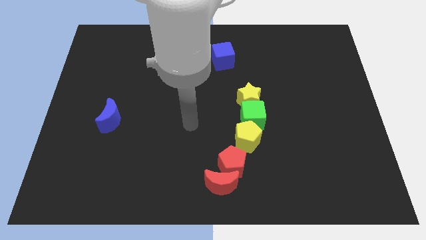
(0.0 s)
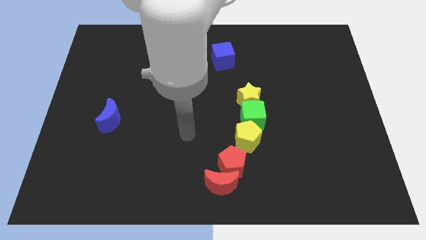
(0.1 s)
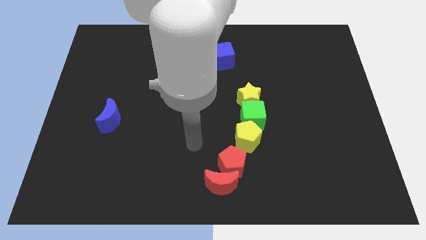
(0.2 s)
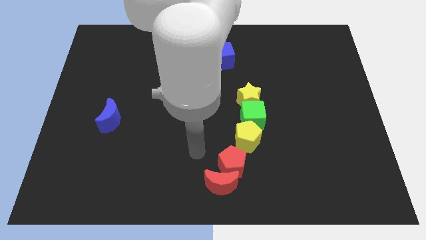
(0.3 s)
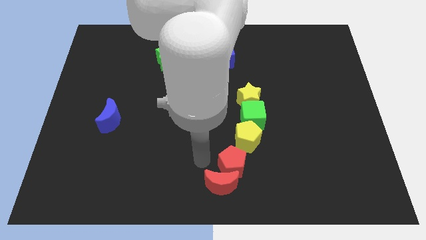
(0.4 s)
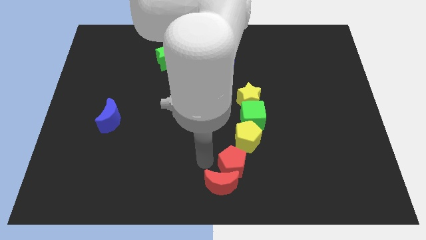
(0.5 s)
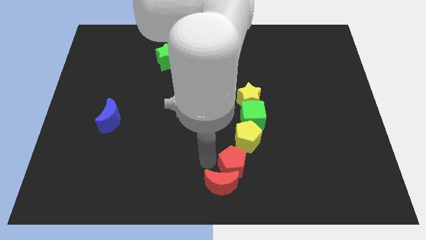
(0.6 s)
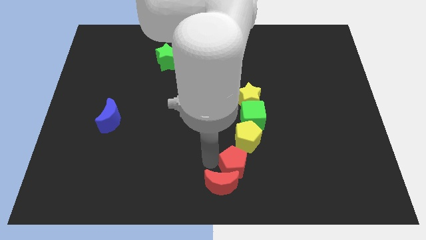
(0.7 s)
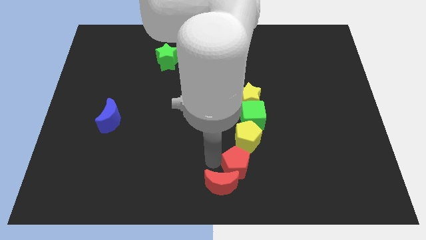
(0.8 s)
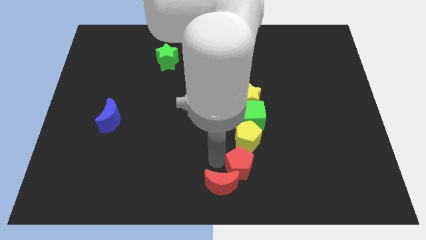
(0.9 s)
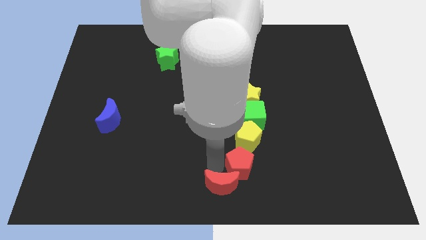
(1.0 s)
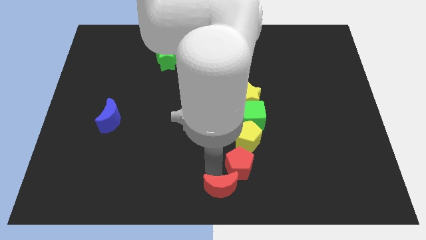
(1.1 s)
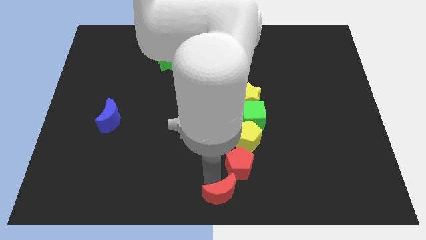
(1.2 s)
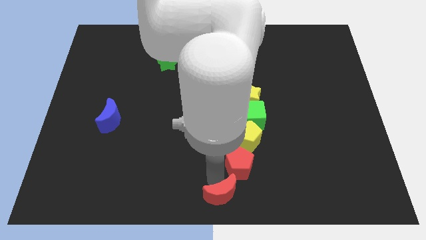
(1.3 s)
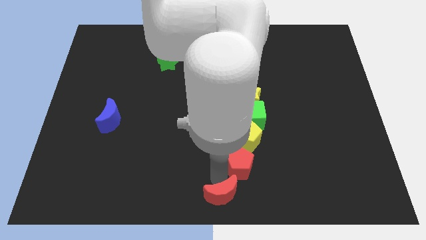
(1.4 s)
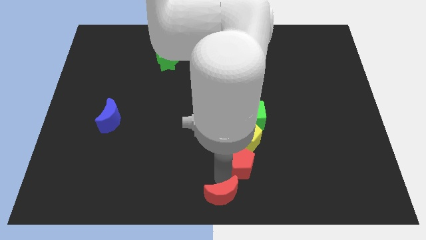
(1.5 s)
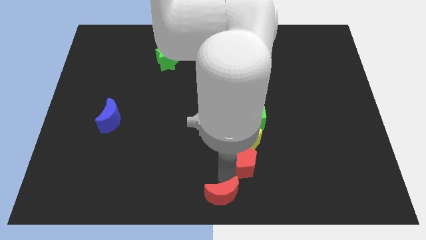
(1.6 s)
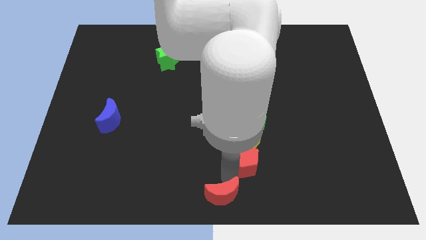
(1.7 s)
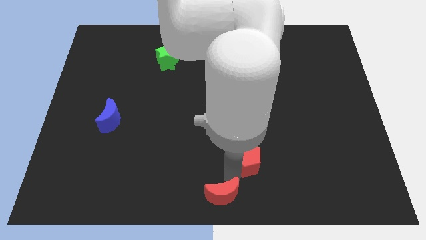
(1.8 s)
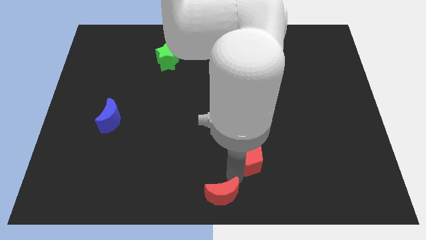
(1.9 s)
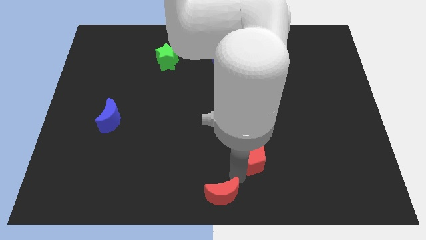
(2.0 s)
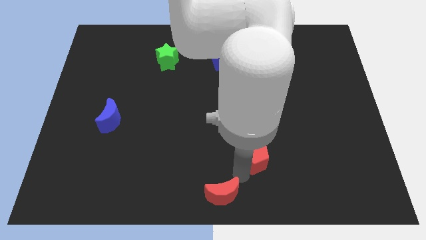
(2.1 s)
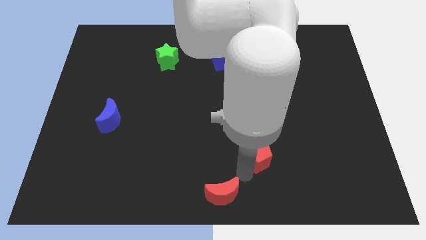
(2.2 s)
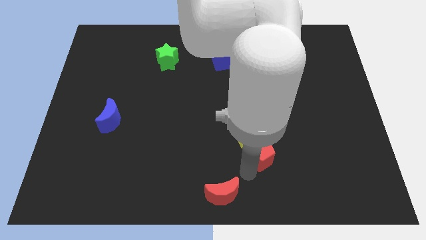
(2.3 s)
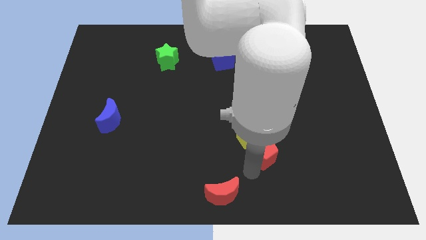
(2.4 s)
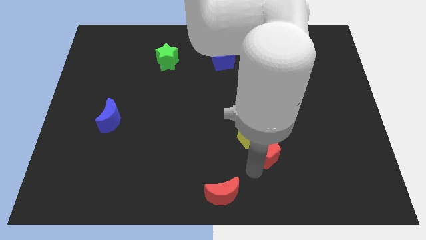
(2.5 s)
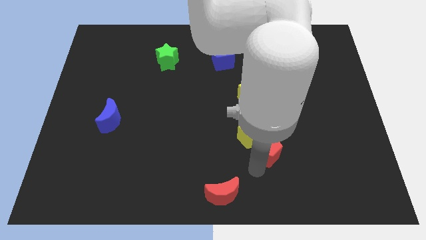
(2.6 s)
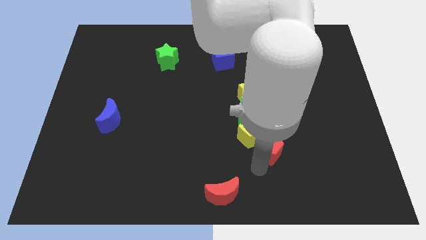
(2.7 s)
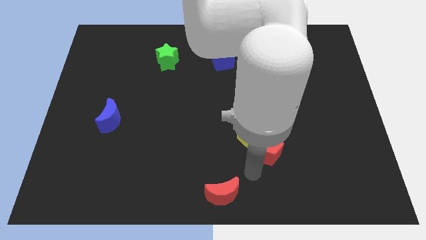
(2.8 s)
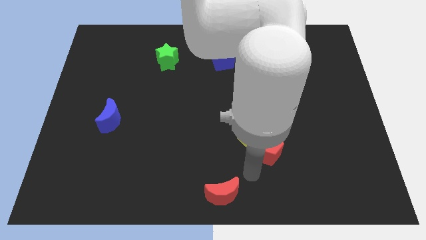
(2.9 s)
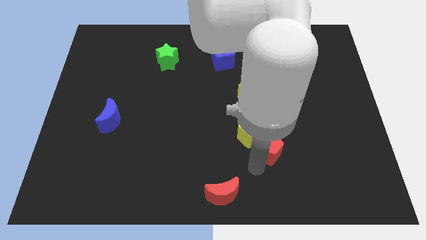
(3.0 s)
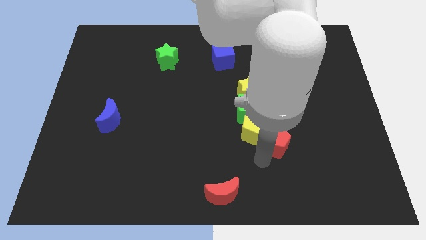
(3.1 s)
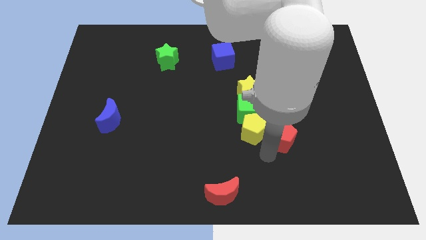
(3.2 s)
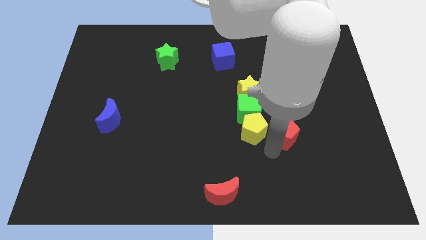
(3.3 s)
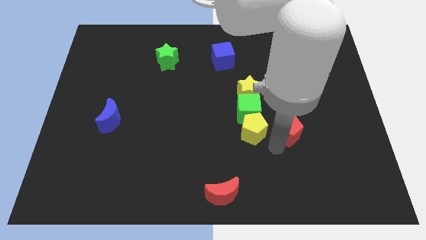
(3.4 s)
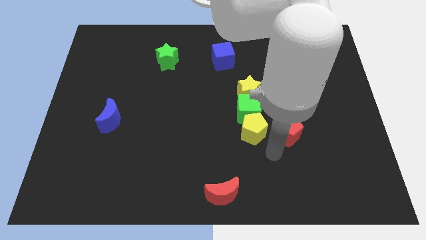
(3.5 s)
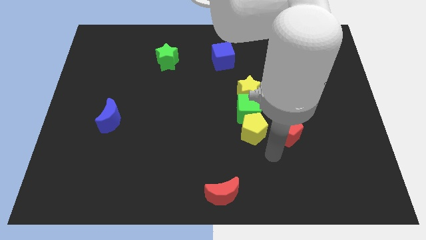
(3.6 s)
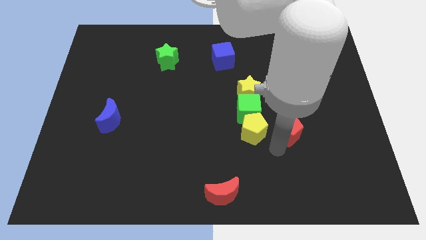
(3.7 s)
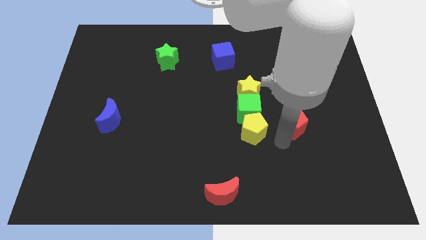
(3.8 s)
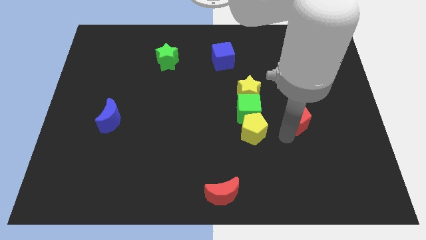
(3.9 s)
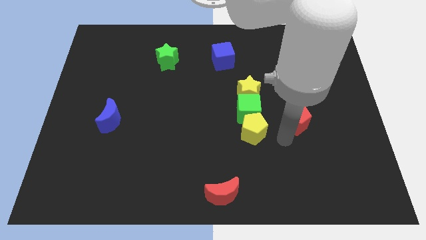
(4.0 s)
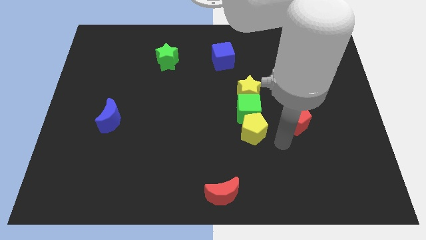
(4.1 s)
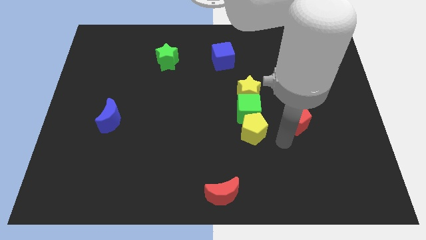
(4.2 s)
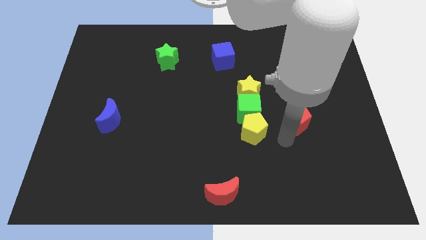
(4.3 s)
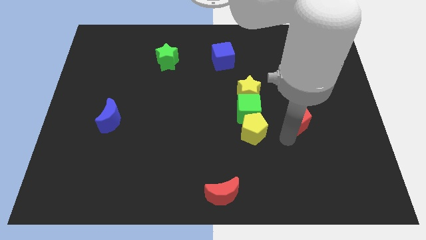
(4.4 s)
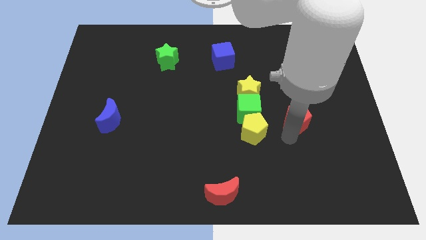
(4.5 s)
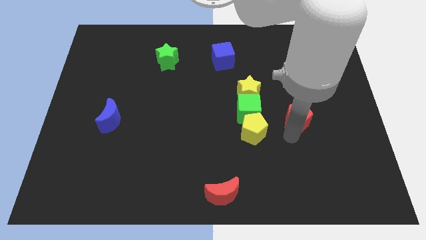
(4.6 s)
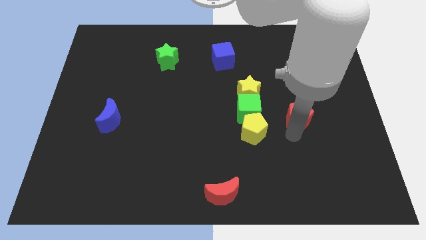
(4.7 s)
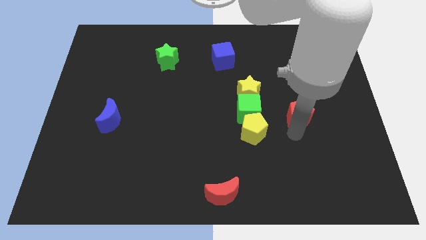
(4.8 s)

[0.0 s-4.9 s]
slide the red pentagon up and to the right diagonally

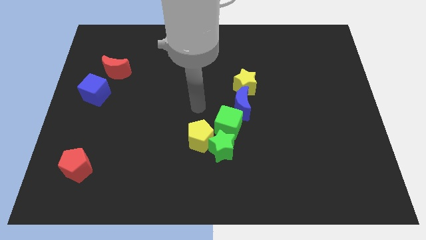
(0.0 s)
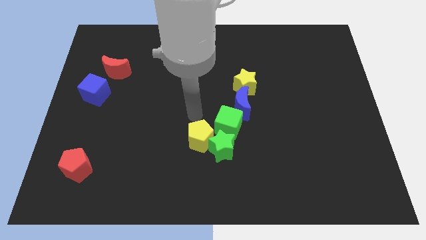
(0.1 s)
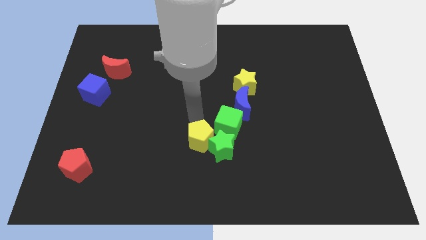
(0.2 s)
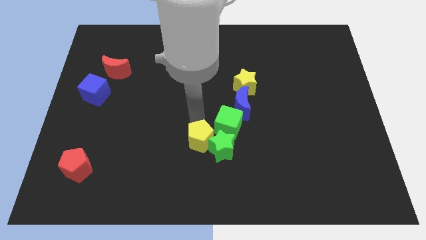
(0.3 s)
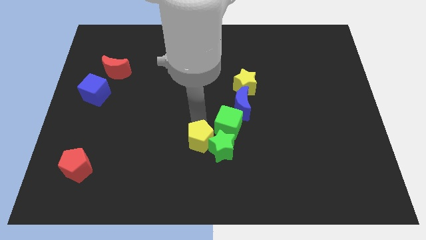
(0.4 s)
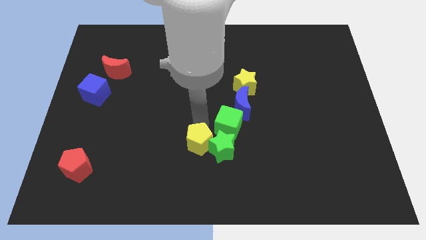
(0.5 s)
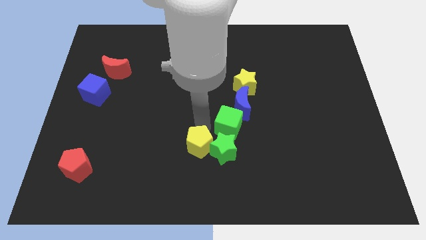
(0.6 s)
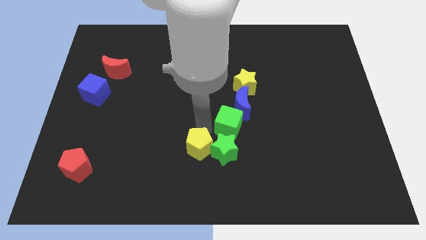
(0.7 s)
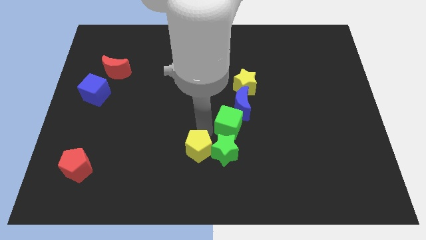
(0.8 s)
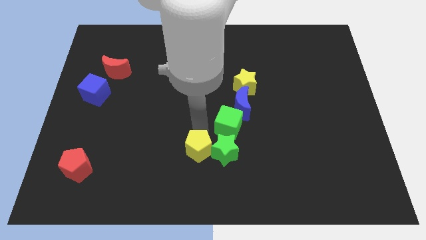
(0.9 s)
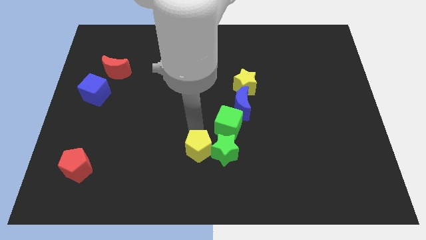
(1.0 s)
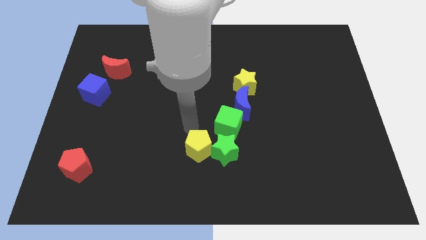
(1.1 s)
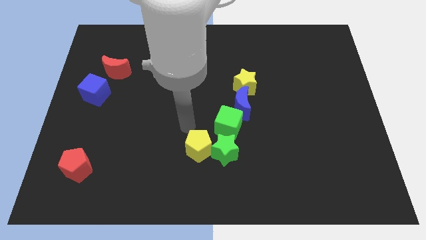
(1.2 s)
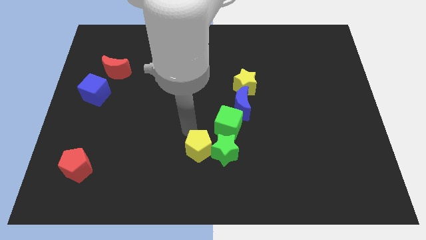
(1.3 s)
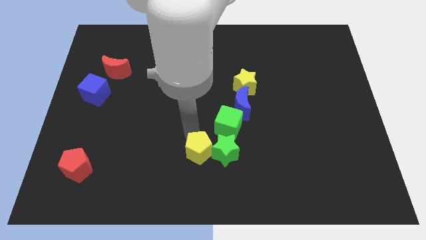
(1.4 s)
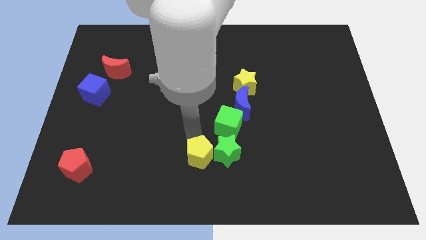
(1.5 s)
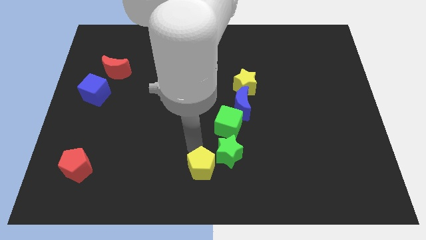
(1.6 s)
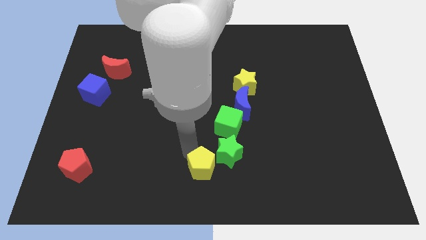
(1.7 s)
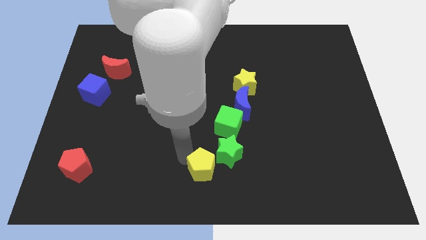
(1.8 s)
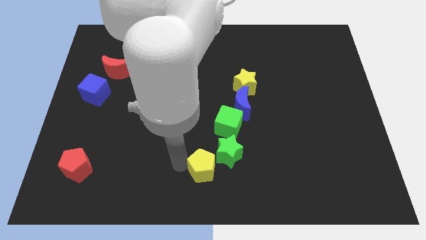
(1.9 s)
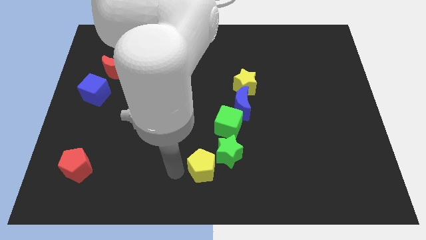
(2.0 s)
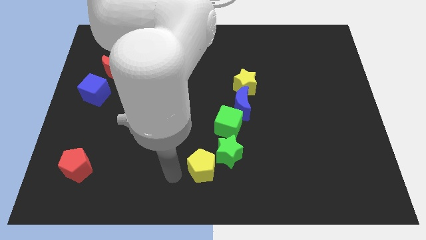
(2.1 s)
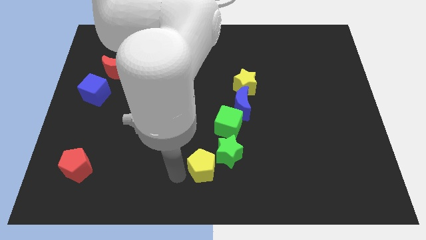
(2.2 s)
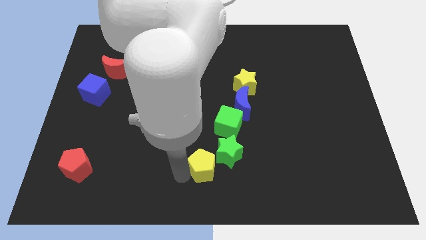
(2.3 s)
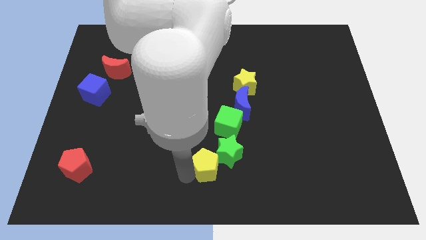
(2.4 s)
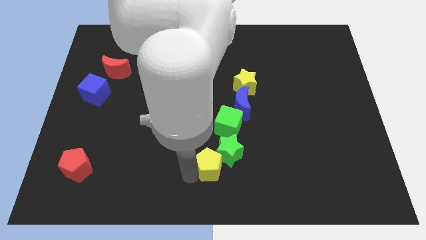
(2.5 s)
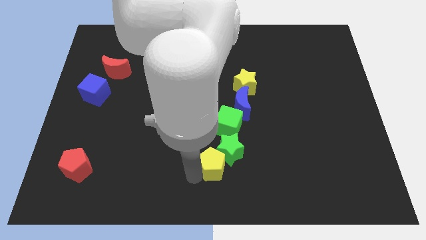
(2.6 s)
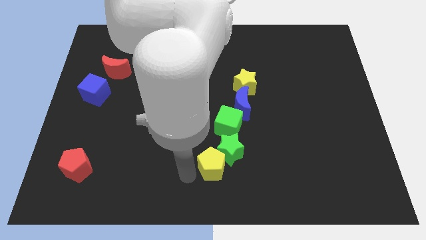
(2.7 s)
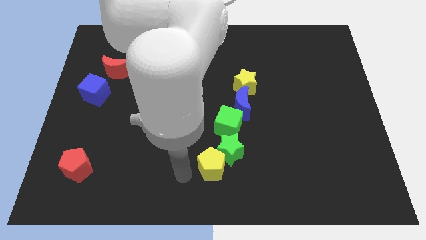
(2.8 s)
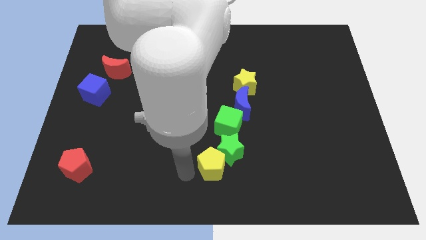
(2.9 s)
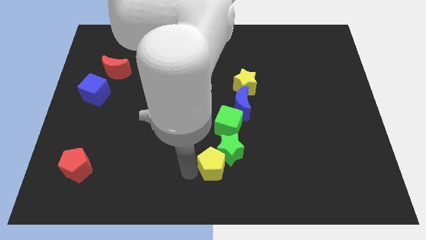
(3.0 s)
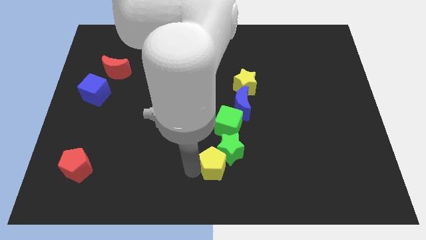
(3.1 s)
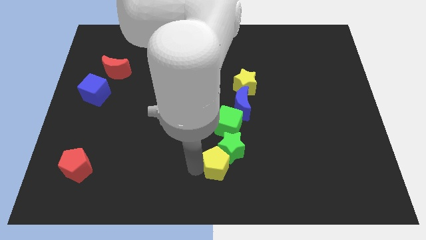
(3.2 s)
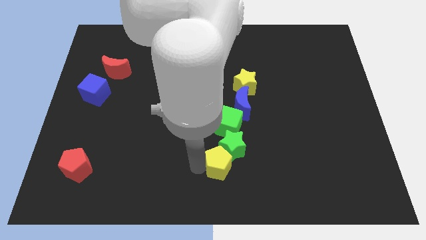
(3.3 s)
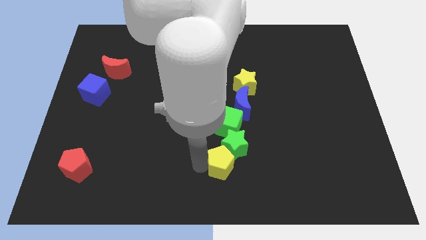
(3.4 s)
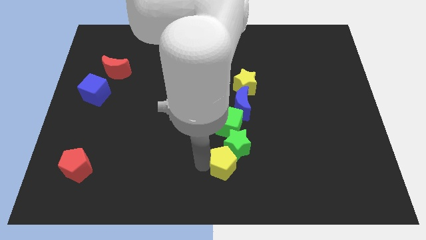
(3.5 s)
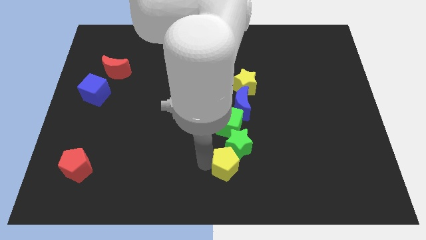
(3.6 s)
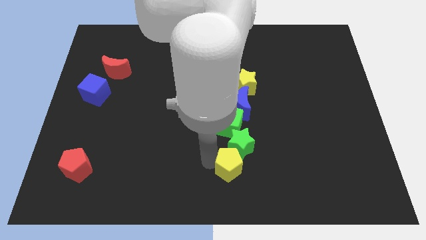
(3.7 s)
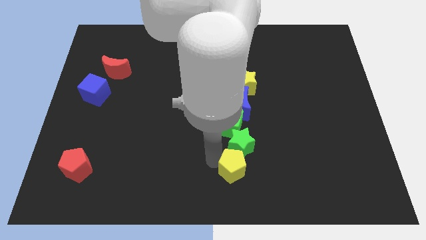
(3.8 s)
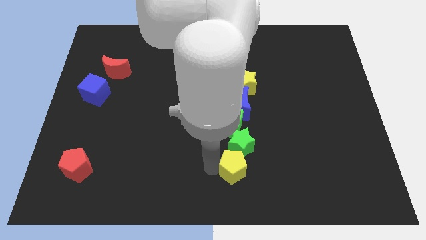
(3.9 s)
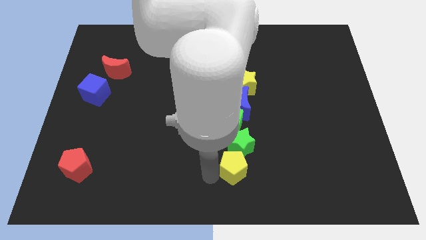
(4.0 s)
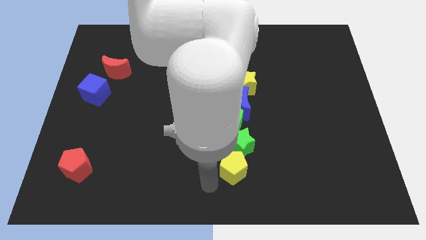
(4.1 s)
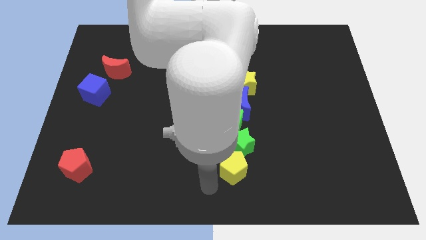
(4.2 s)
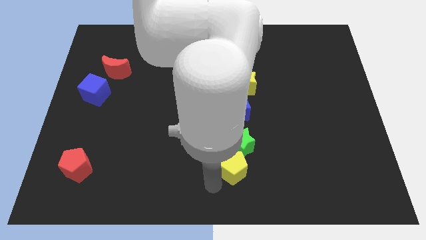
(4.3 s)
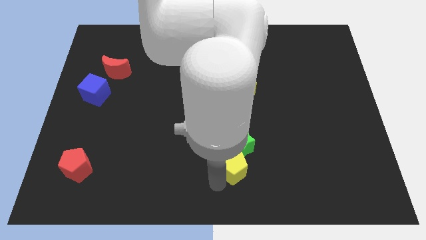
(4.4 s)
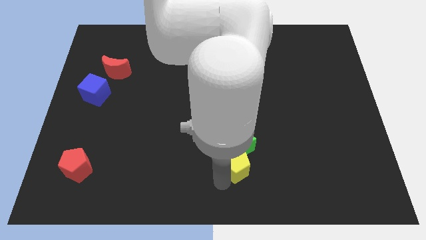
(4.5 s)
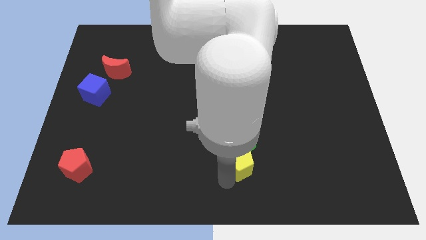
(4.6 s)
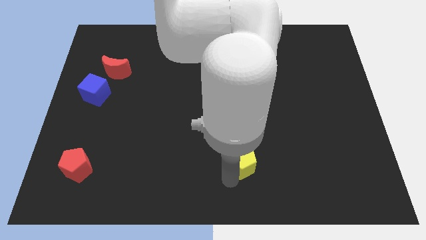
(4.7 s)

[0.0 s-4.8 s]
slightly push the yellow pentagon to the right
